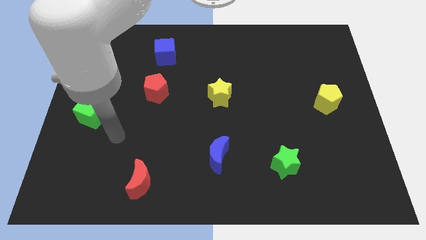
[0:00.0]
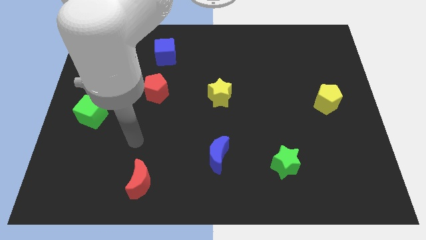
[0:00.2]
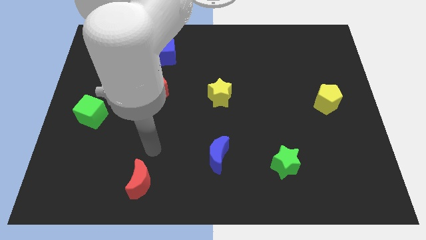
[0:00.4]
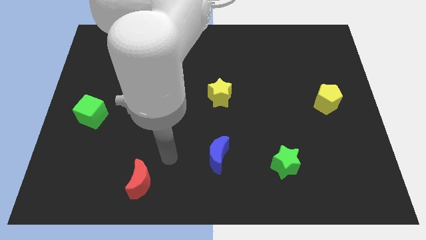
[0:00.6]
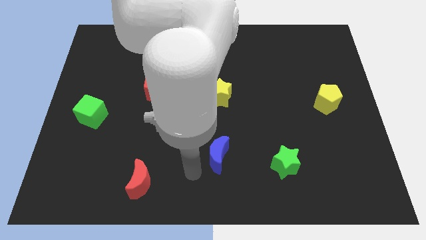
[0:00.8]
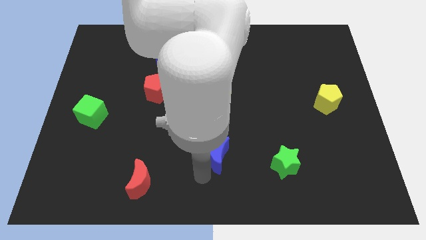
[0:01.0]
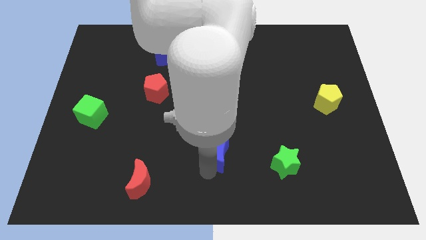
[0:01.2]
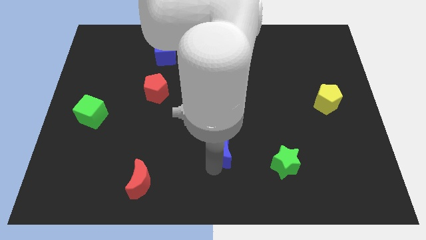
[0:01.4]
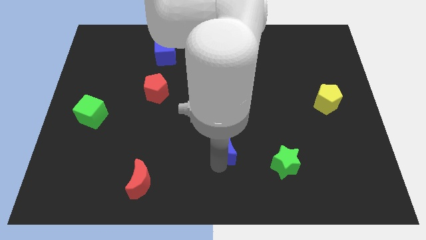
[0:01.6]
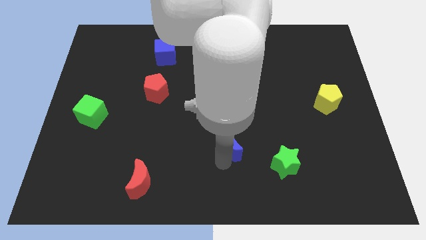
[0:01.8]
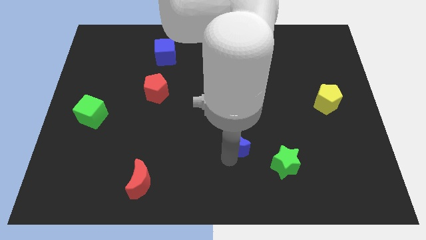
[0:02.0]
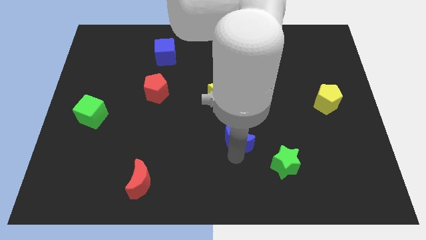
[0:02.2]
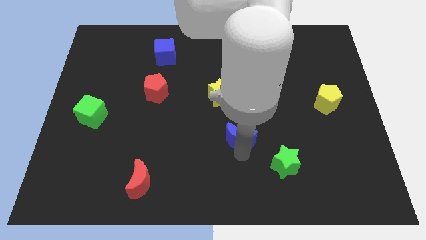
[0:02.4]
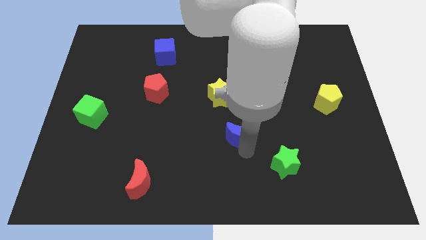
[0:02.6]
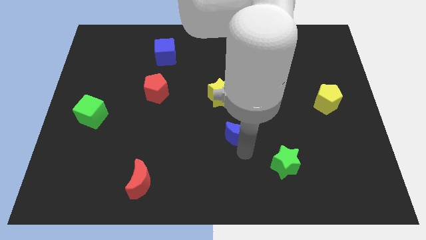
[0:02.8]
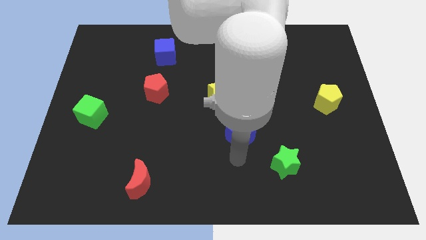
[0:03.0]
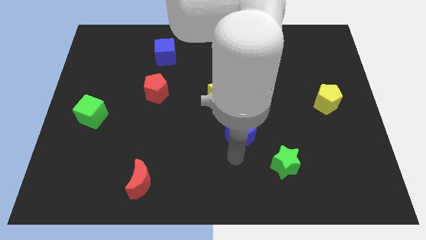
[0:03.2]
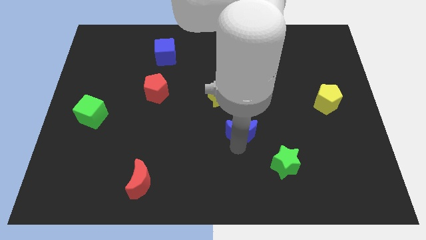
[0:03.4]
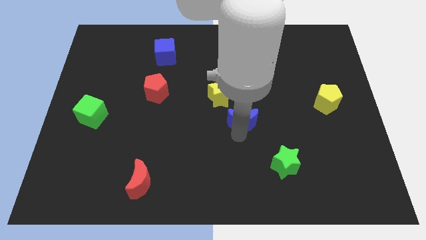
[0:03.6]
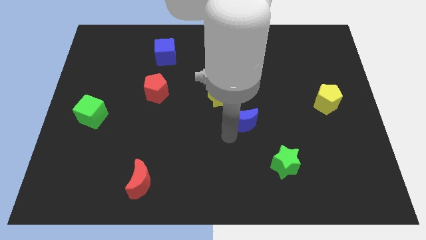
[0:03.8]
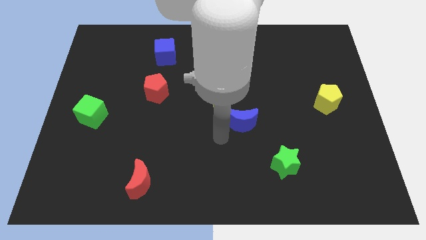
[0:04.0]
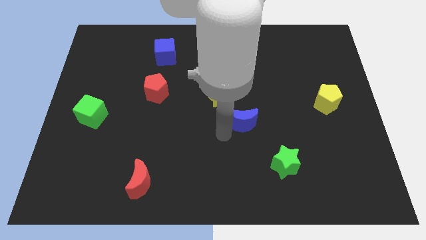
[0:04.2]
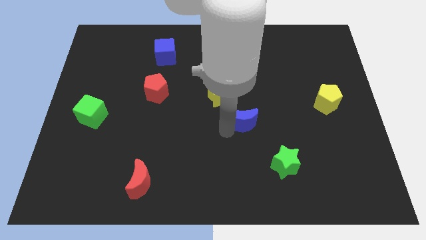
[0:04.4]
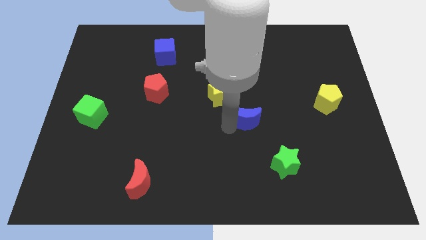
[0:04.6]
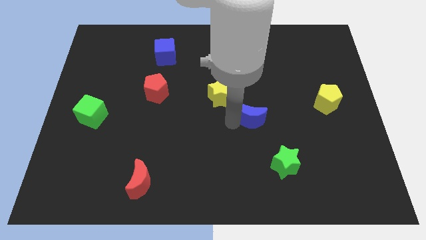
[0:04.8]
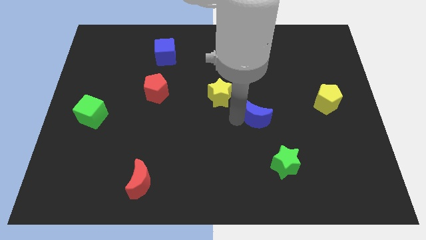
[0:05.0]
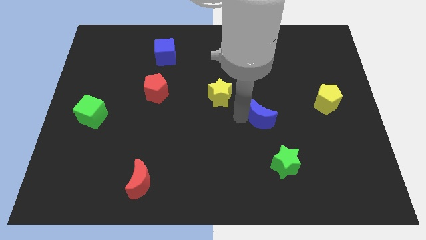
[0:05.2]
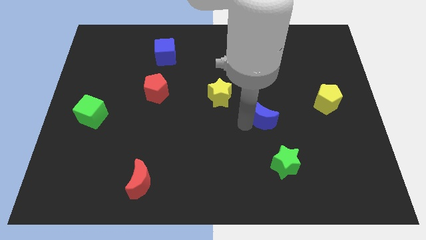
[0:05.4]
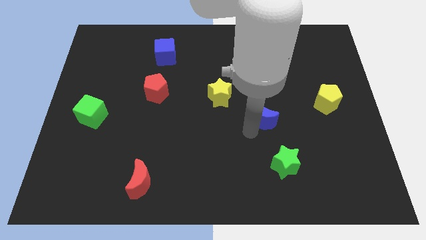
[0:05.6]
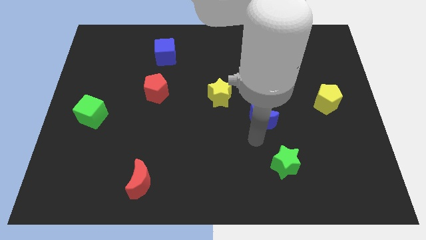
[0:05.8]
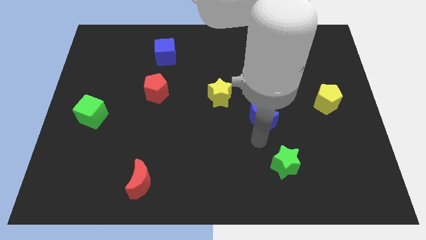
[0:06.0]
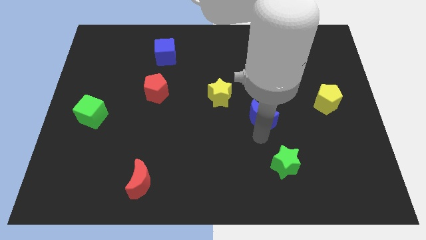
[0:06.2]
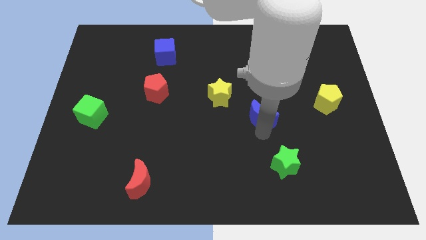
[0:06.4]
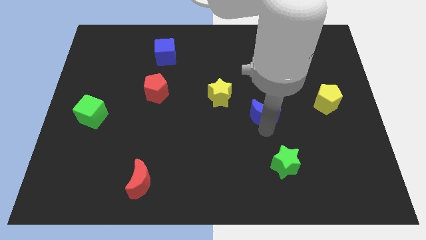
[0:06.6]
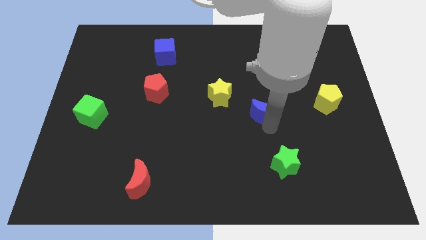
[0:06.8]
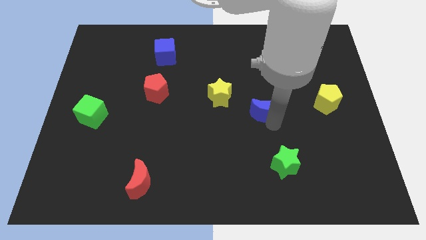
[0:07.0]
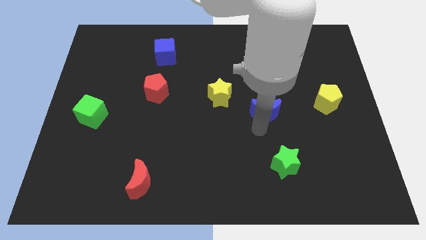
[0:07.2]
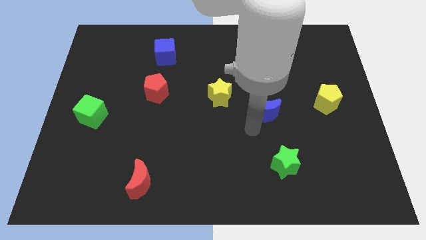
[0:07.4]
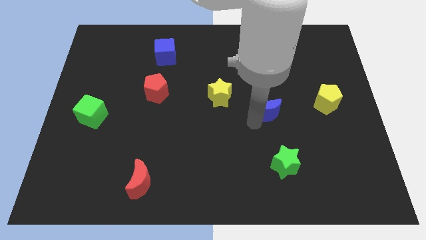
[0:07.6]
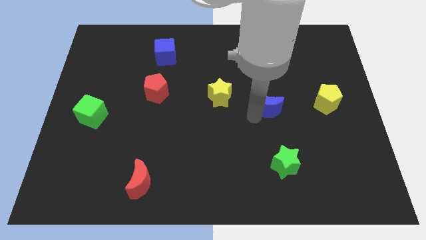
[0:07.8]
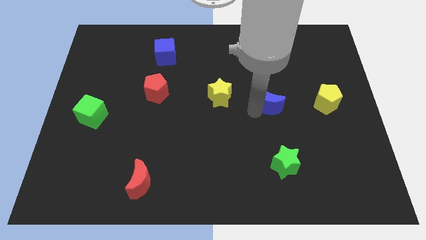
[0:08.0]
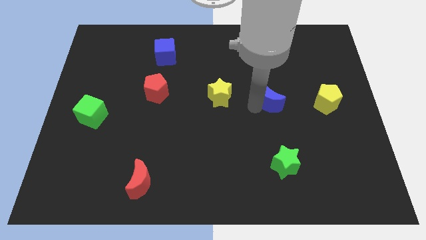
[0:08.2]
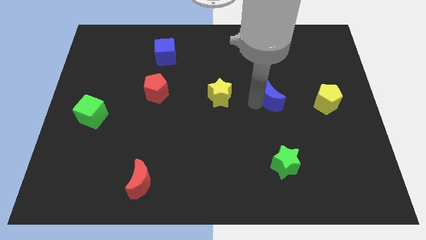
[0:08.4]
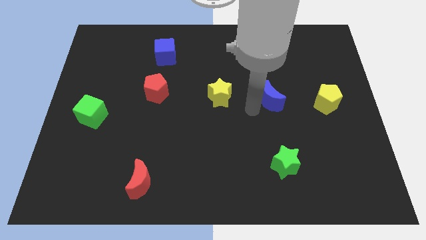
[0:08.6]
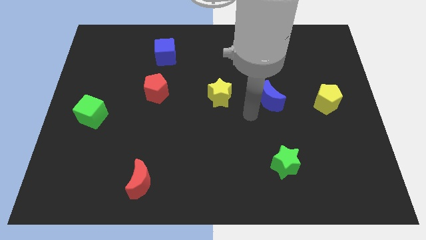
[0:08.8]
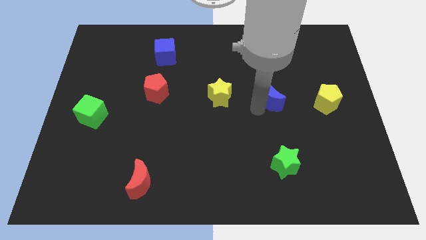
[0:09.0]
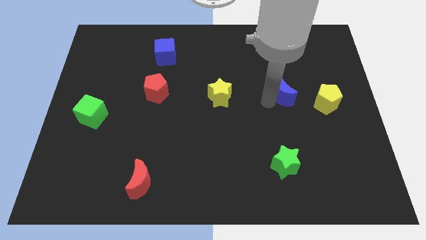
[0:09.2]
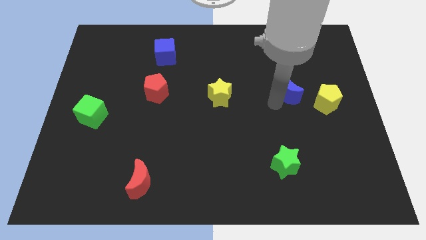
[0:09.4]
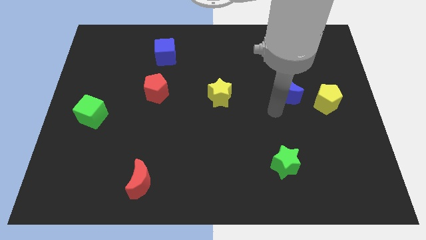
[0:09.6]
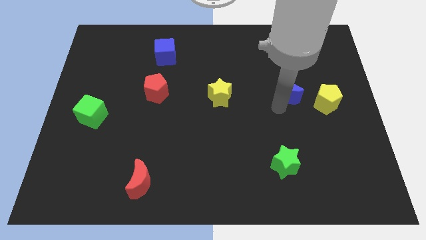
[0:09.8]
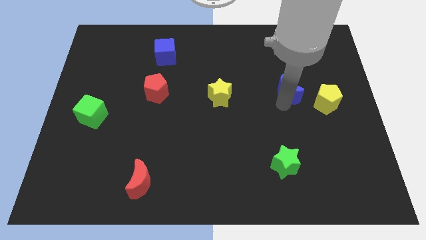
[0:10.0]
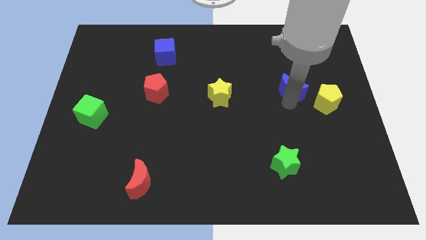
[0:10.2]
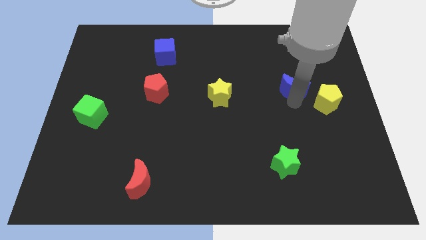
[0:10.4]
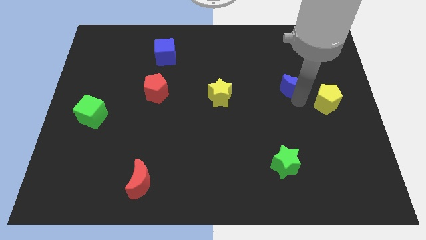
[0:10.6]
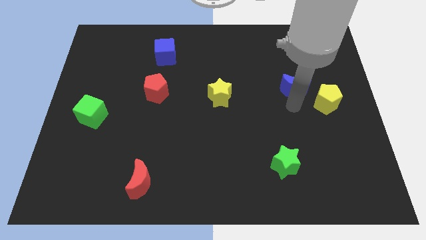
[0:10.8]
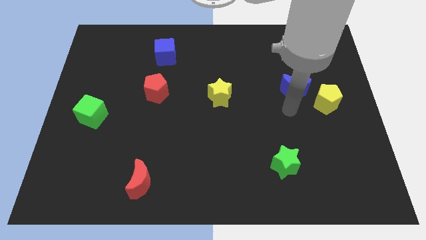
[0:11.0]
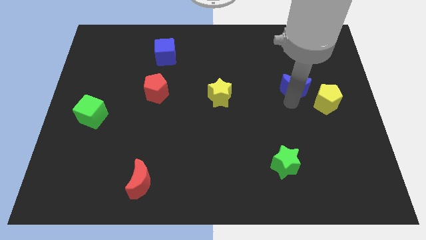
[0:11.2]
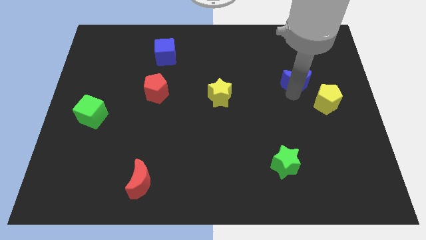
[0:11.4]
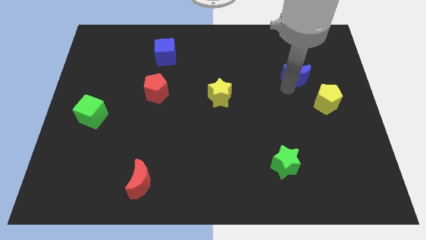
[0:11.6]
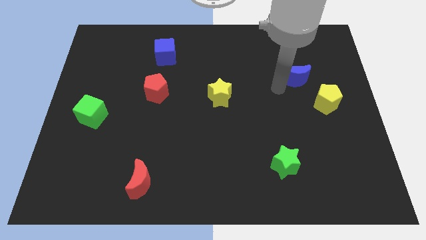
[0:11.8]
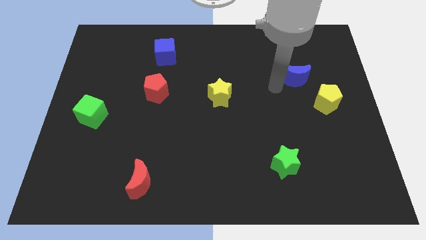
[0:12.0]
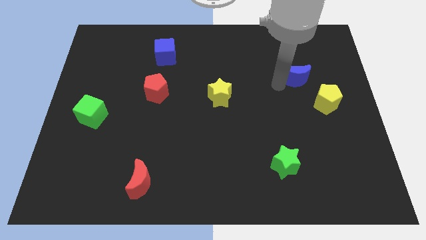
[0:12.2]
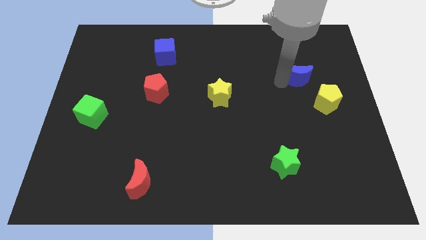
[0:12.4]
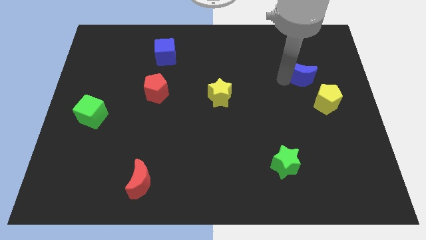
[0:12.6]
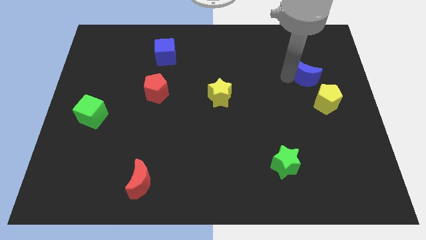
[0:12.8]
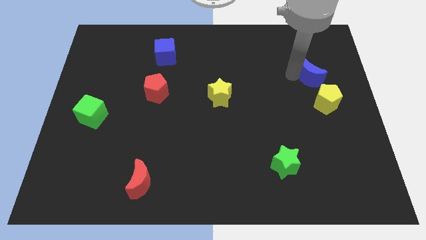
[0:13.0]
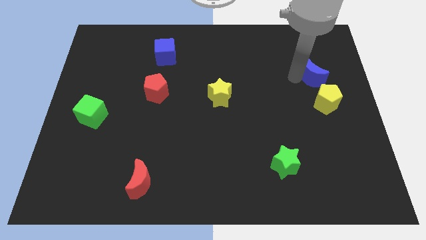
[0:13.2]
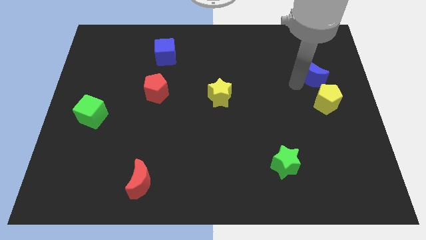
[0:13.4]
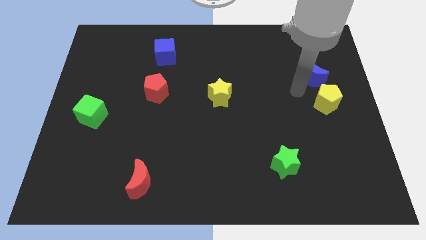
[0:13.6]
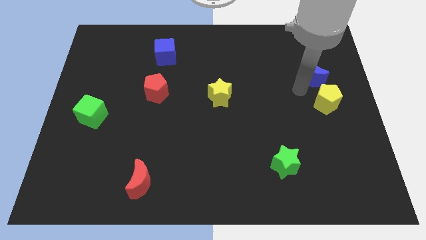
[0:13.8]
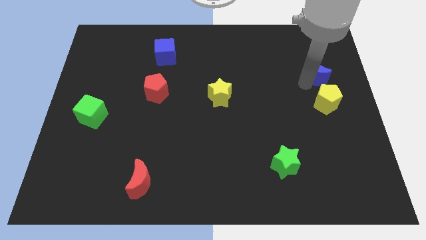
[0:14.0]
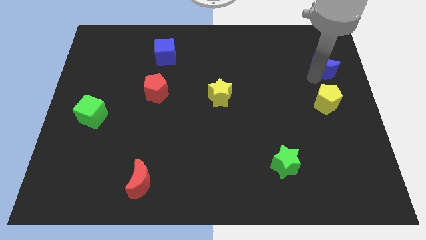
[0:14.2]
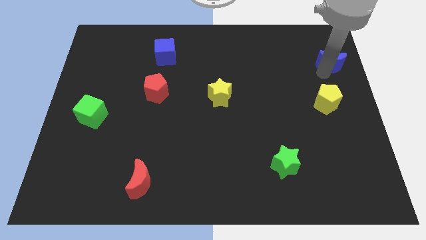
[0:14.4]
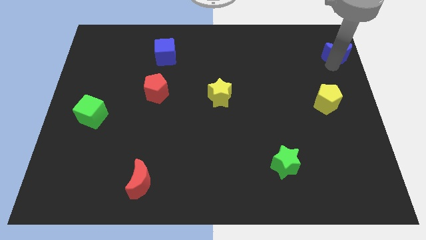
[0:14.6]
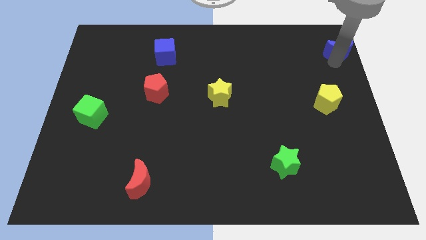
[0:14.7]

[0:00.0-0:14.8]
push the blue moon to the top right of the board
